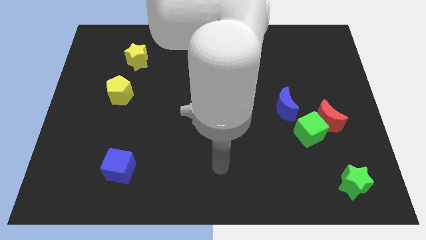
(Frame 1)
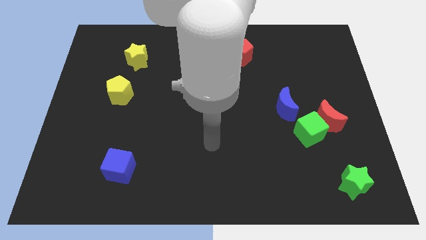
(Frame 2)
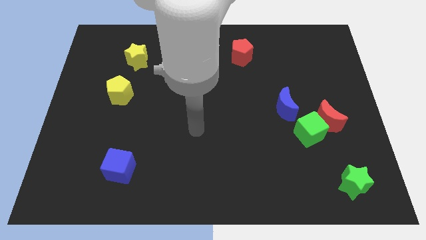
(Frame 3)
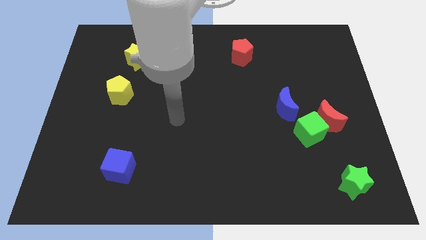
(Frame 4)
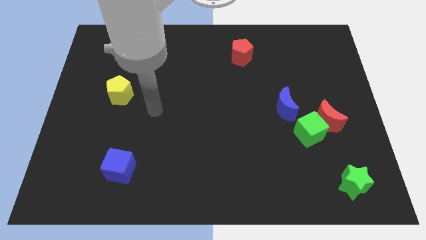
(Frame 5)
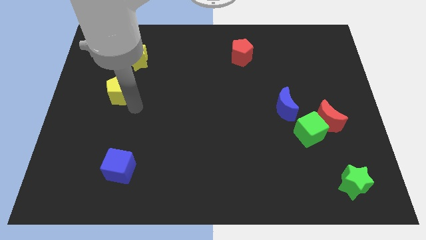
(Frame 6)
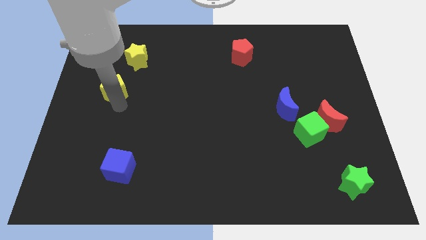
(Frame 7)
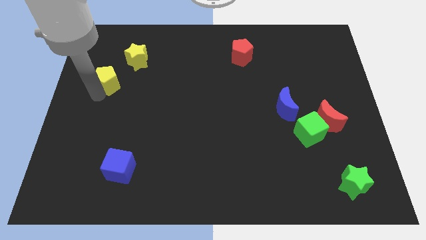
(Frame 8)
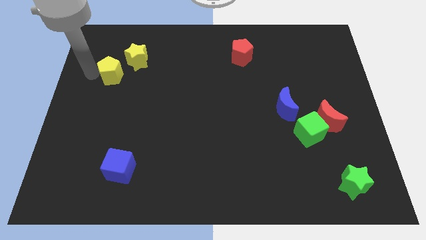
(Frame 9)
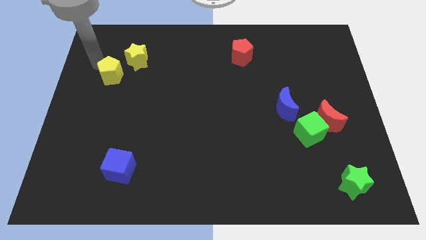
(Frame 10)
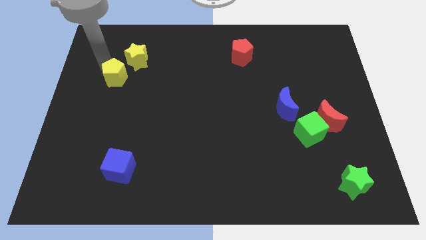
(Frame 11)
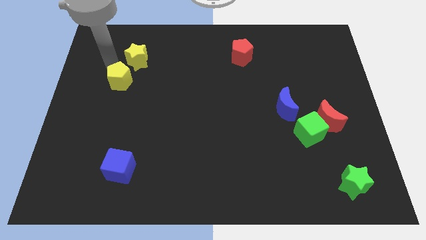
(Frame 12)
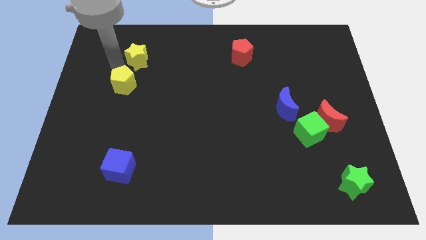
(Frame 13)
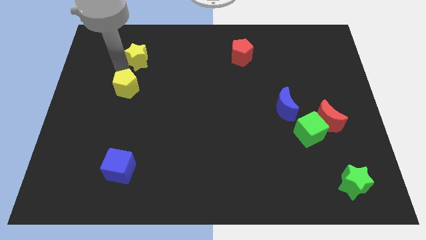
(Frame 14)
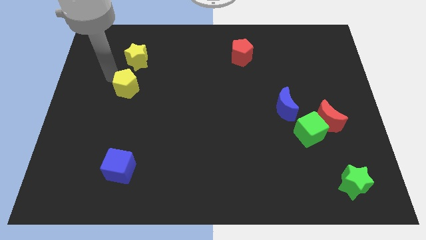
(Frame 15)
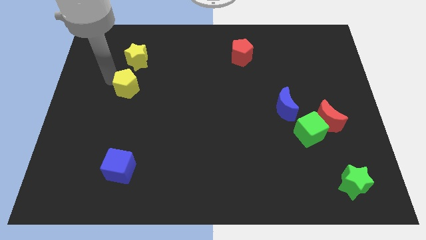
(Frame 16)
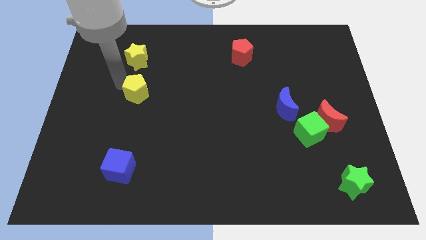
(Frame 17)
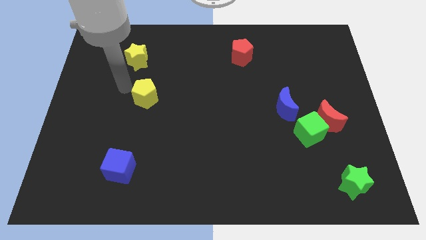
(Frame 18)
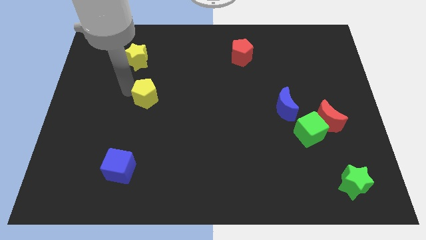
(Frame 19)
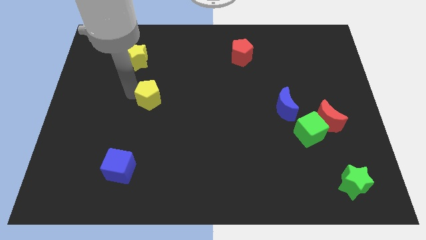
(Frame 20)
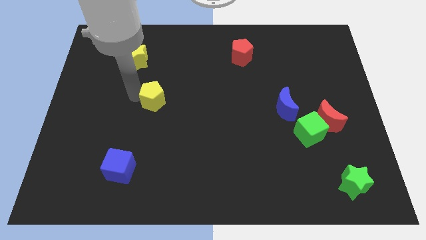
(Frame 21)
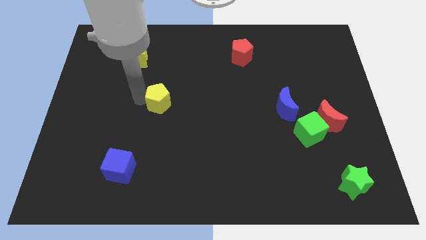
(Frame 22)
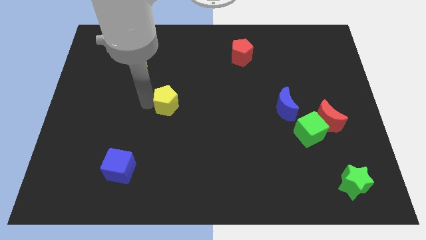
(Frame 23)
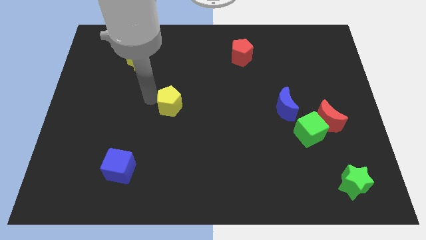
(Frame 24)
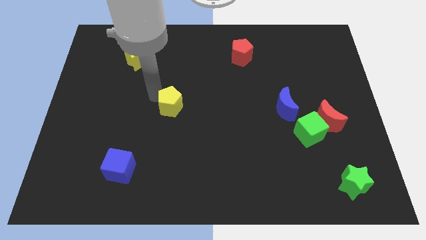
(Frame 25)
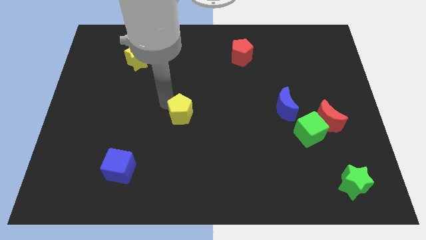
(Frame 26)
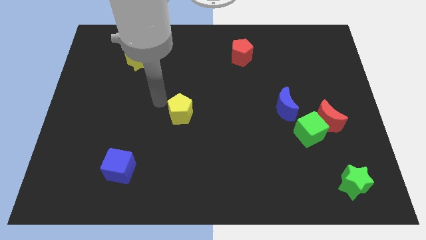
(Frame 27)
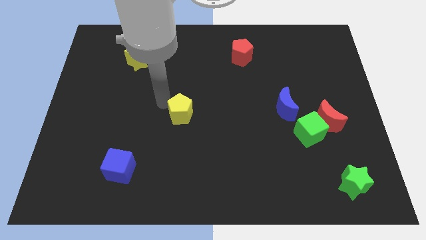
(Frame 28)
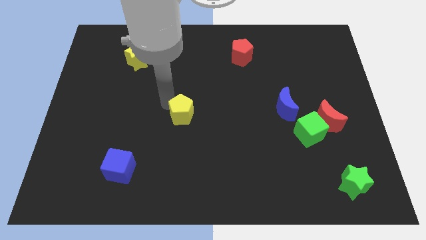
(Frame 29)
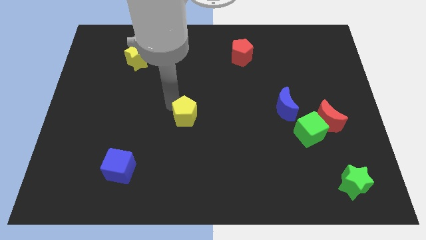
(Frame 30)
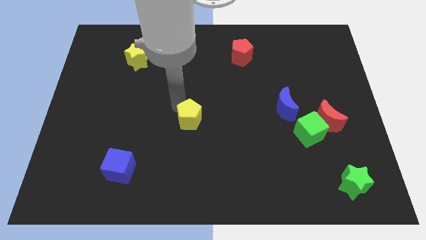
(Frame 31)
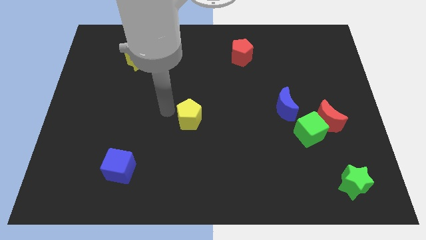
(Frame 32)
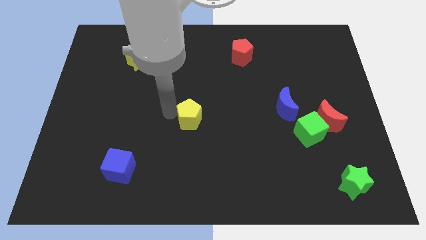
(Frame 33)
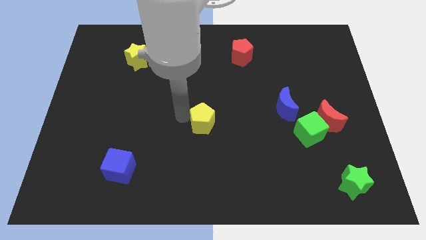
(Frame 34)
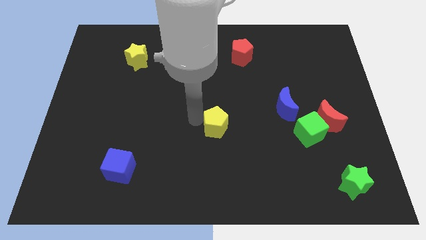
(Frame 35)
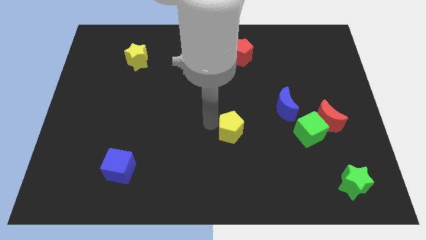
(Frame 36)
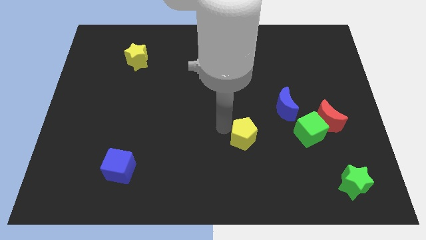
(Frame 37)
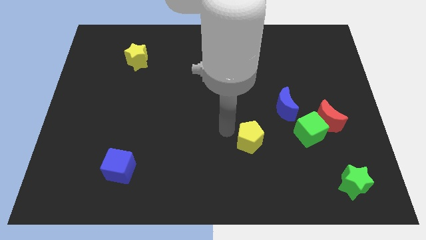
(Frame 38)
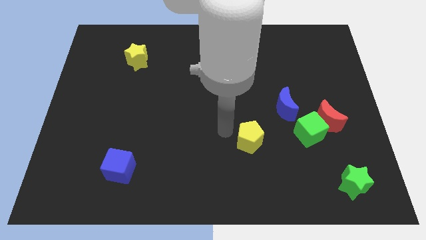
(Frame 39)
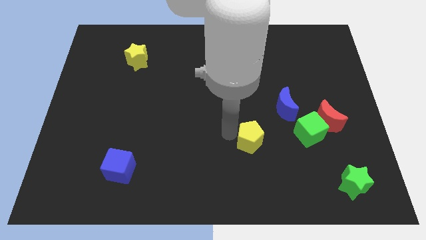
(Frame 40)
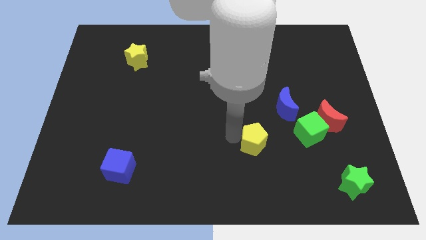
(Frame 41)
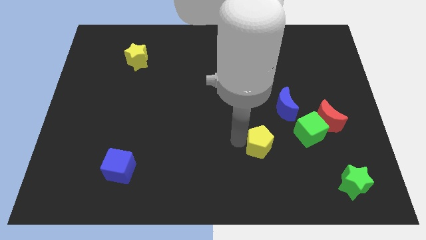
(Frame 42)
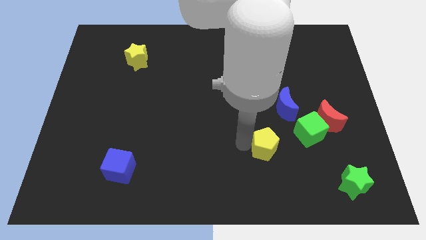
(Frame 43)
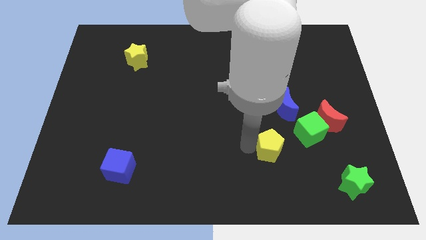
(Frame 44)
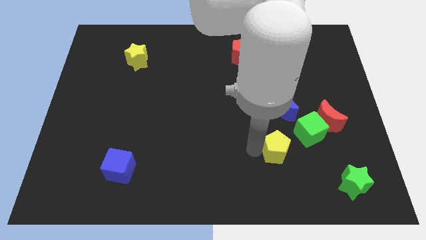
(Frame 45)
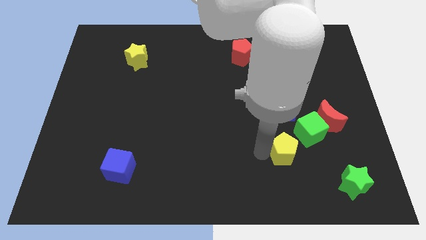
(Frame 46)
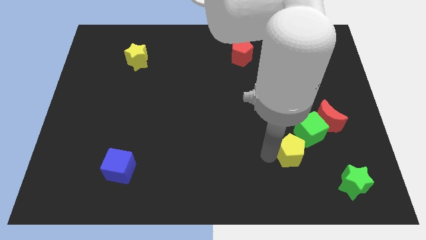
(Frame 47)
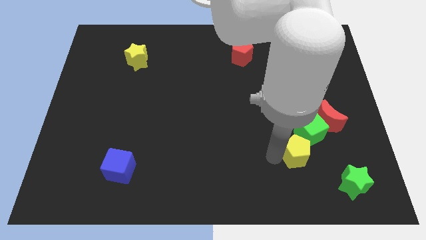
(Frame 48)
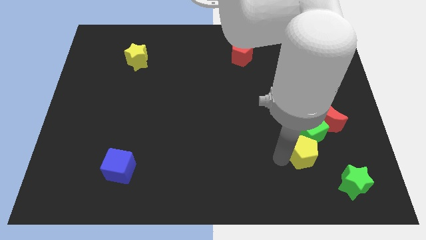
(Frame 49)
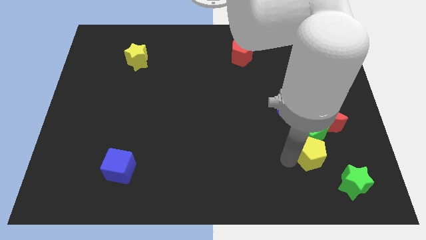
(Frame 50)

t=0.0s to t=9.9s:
slide the yellow pentagon to the bottom right side of the green cube

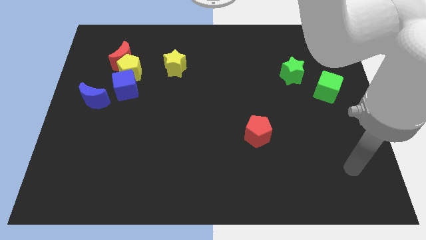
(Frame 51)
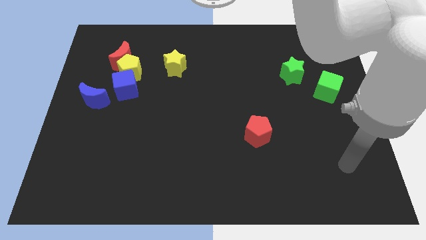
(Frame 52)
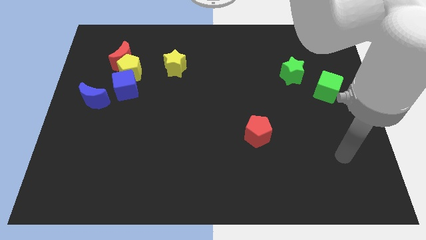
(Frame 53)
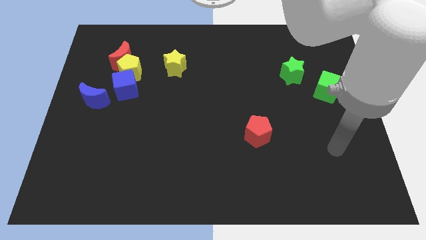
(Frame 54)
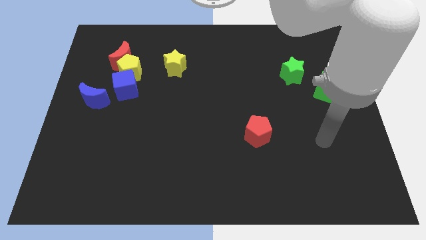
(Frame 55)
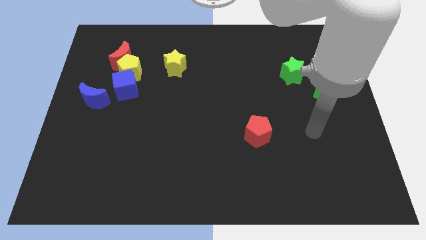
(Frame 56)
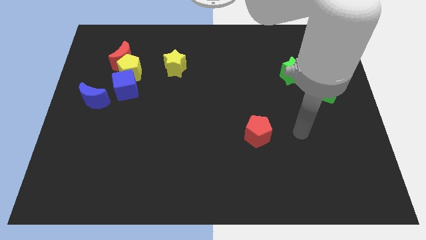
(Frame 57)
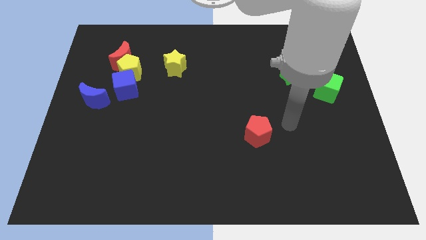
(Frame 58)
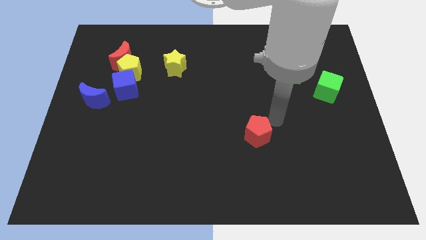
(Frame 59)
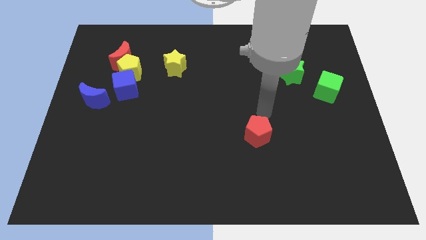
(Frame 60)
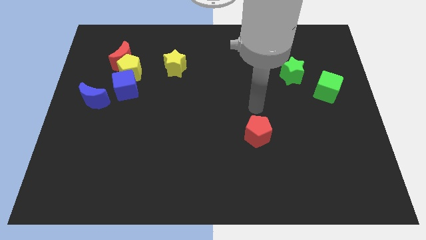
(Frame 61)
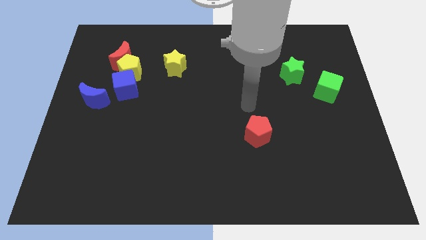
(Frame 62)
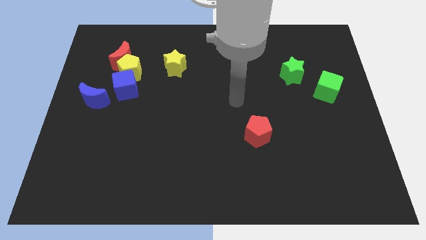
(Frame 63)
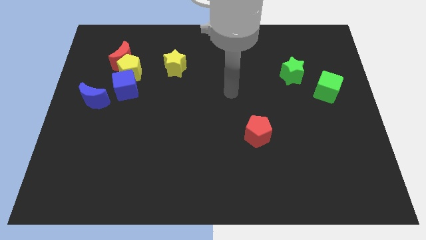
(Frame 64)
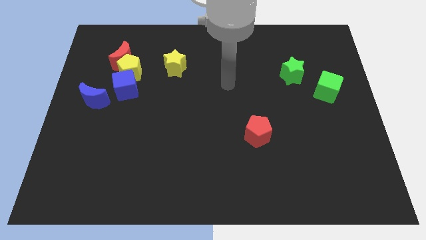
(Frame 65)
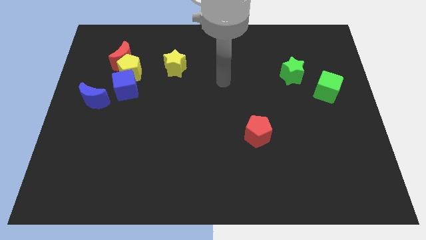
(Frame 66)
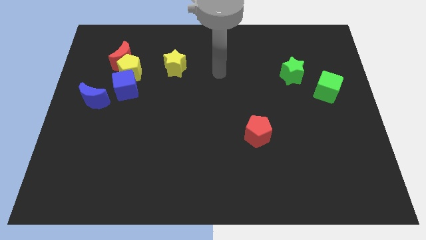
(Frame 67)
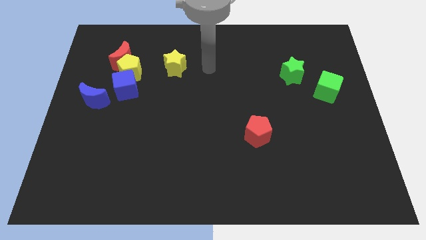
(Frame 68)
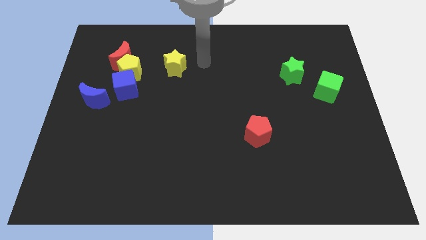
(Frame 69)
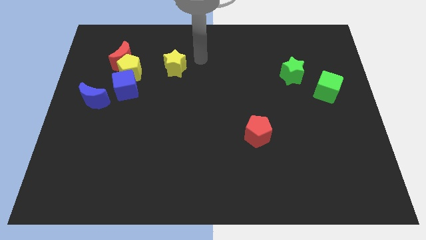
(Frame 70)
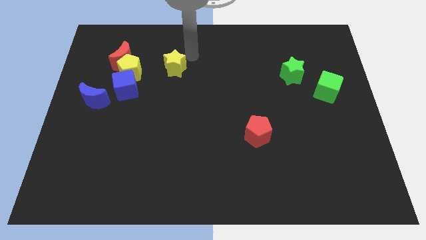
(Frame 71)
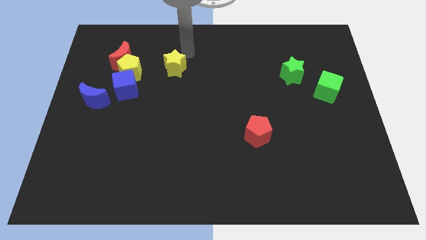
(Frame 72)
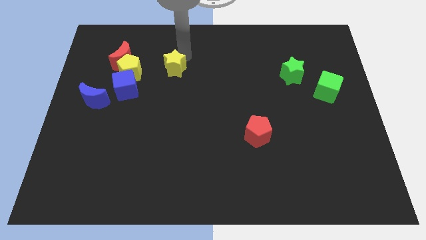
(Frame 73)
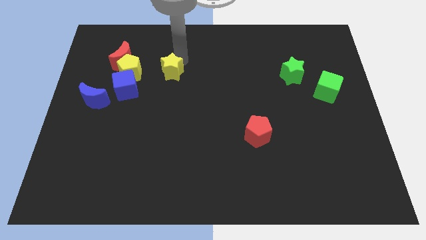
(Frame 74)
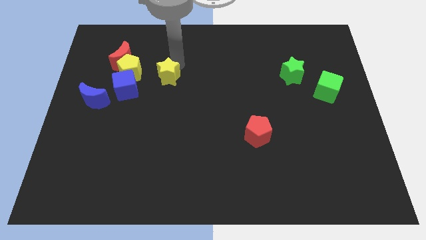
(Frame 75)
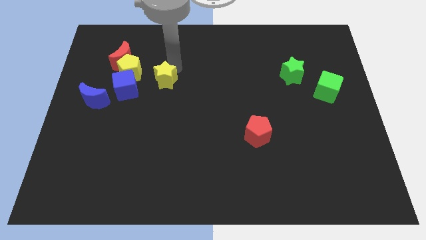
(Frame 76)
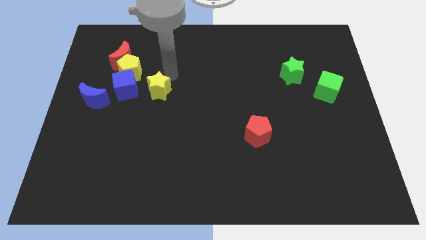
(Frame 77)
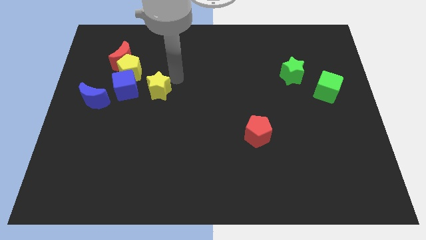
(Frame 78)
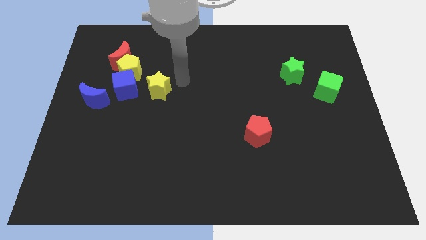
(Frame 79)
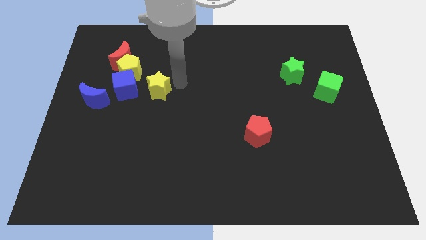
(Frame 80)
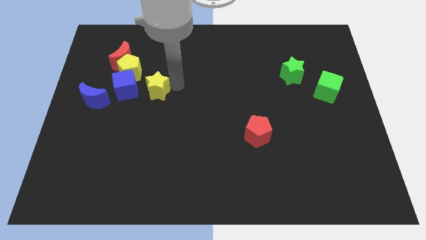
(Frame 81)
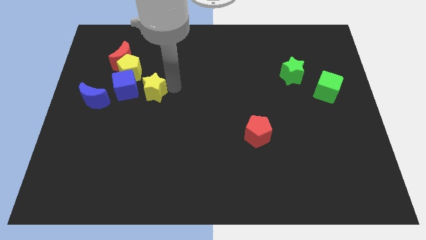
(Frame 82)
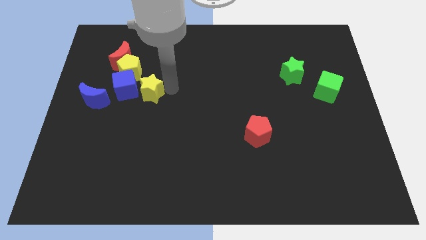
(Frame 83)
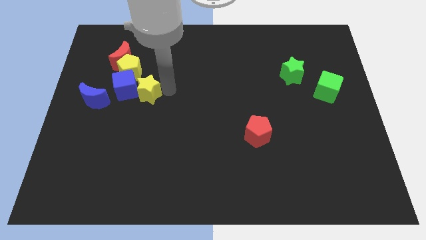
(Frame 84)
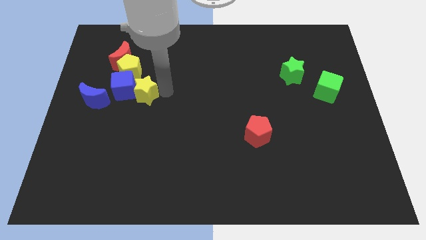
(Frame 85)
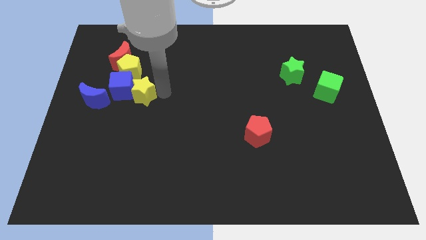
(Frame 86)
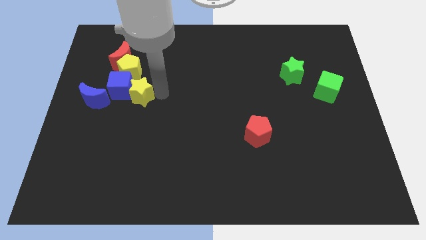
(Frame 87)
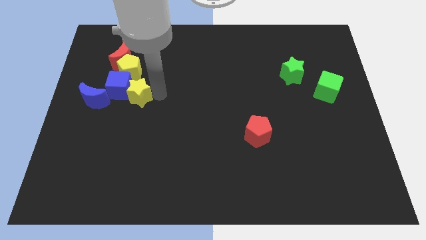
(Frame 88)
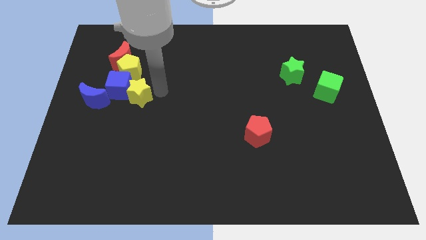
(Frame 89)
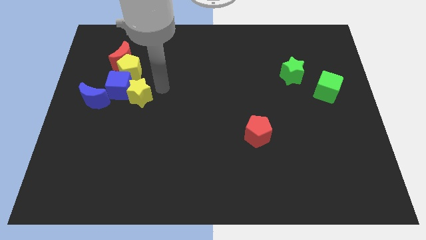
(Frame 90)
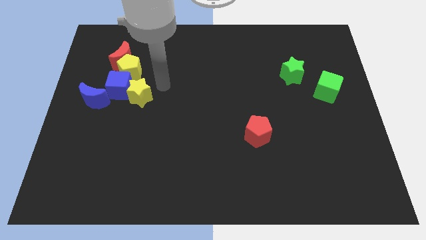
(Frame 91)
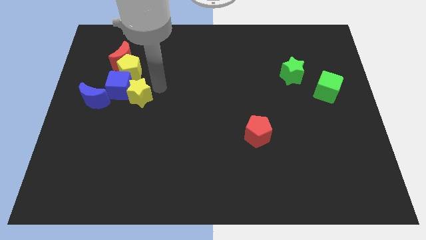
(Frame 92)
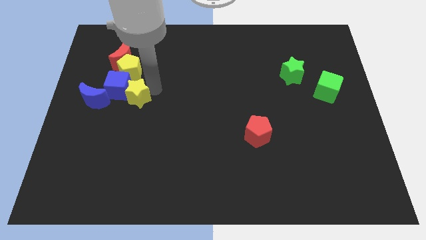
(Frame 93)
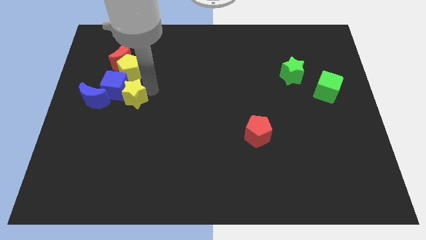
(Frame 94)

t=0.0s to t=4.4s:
push the yellow star to the bottom side of the red moon
